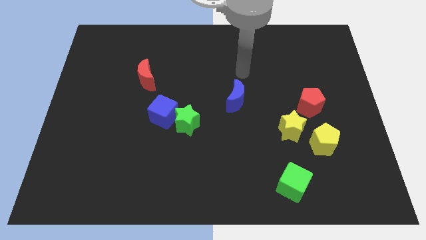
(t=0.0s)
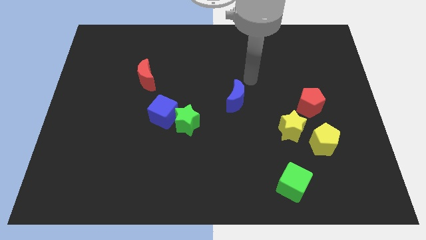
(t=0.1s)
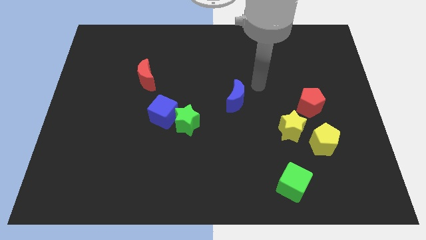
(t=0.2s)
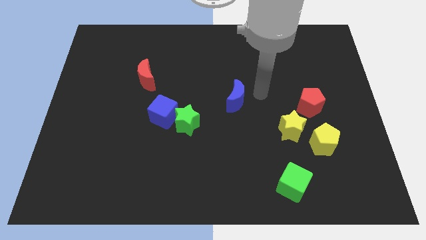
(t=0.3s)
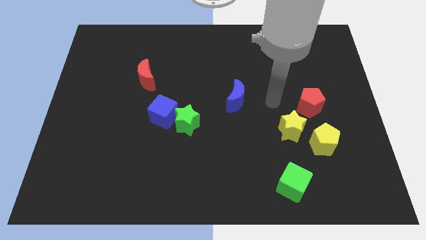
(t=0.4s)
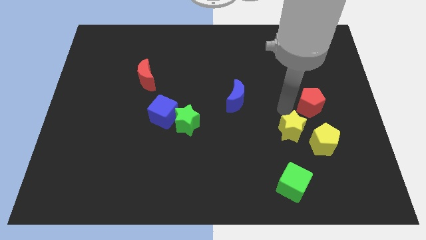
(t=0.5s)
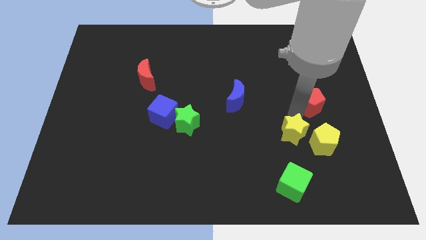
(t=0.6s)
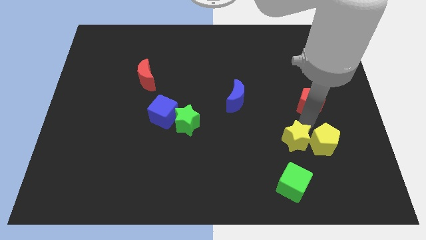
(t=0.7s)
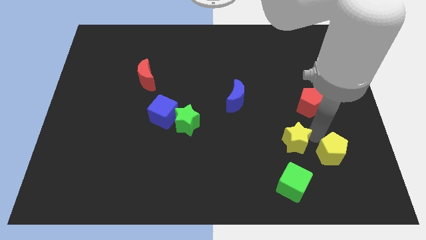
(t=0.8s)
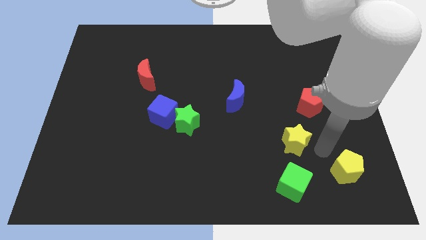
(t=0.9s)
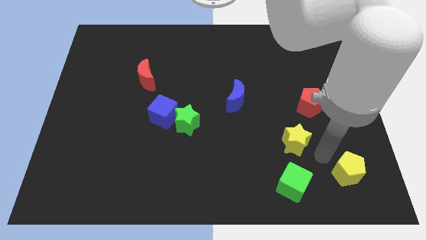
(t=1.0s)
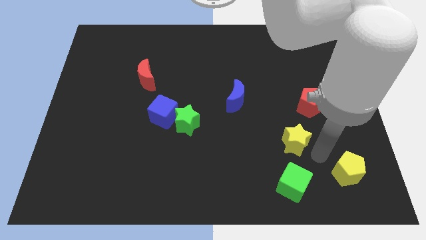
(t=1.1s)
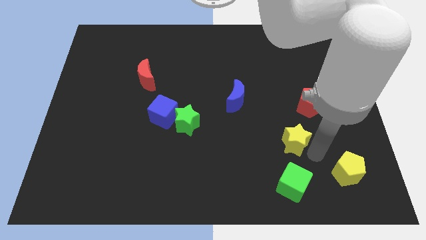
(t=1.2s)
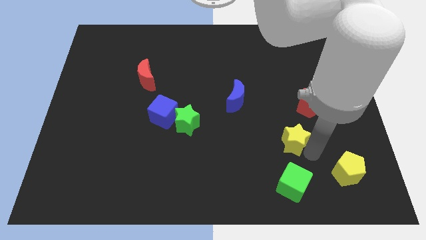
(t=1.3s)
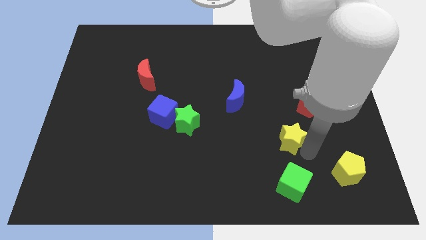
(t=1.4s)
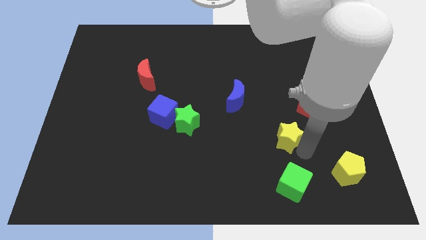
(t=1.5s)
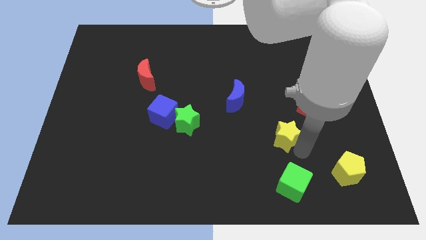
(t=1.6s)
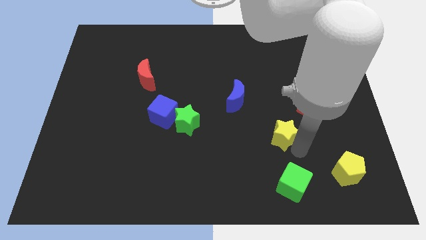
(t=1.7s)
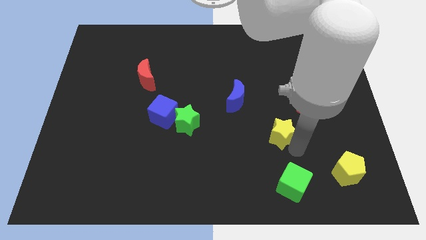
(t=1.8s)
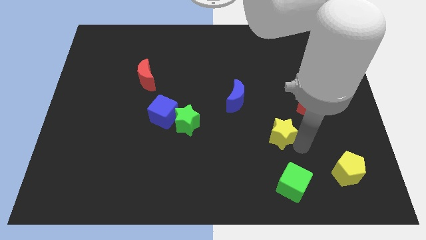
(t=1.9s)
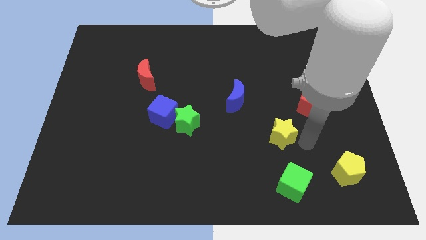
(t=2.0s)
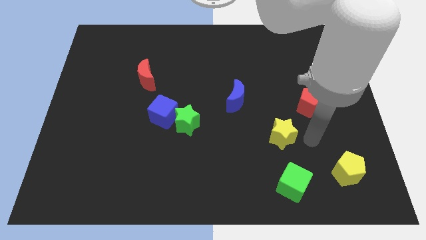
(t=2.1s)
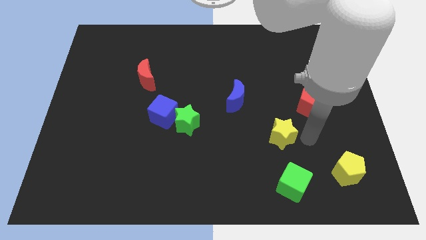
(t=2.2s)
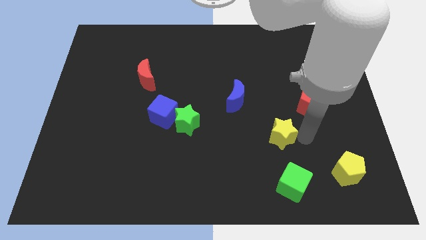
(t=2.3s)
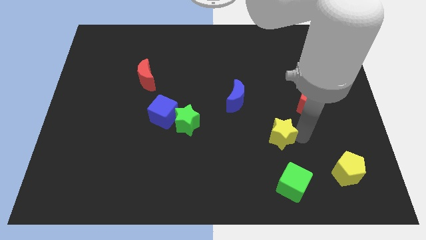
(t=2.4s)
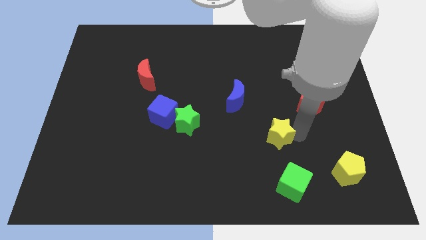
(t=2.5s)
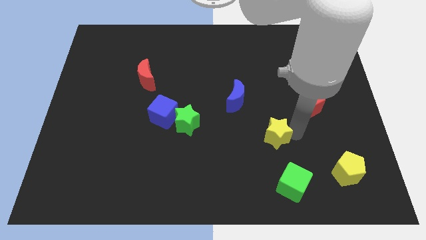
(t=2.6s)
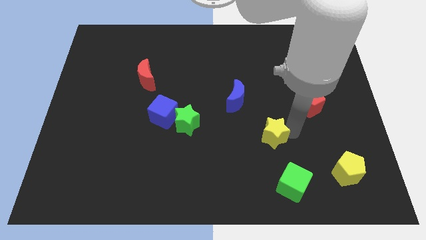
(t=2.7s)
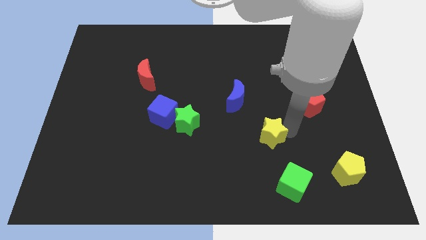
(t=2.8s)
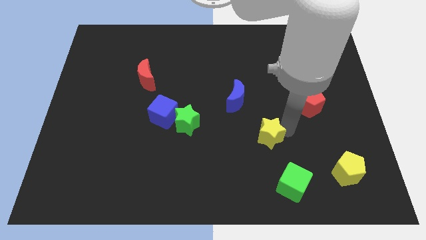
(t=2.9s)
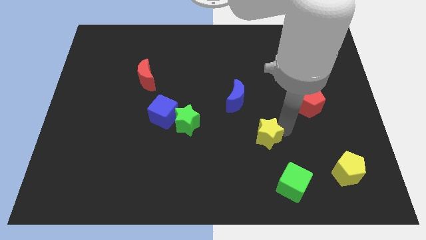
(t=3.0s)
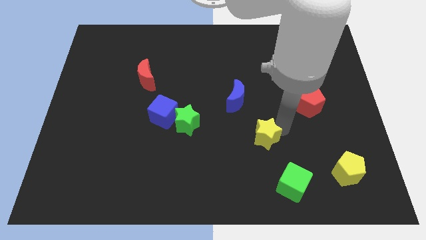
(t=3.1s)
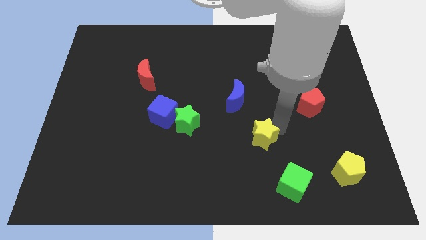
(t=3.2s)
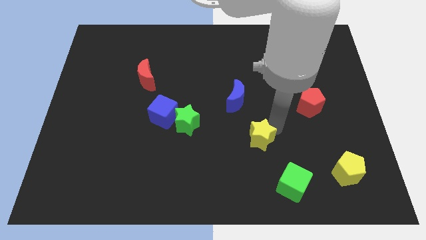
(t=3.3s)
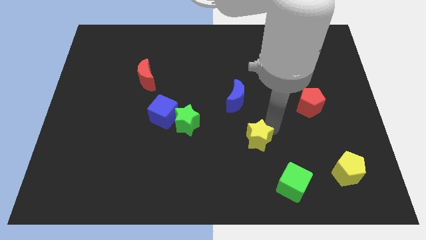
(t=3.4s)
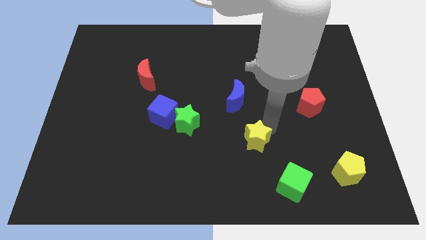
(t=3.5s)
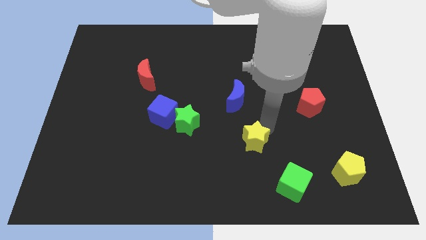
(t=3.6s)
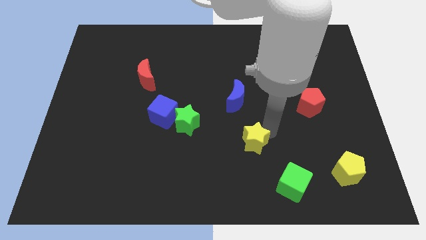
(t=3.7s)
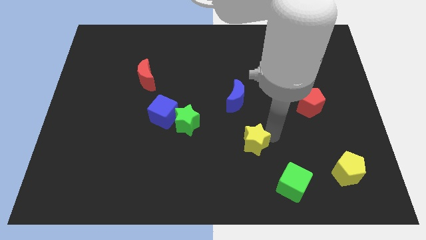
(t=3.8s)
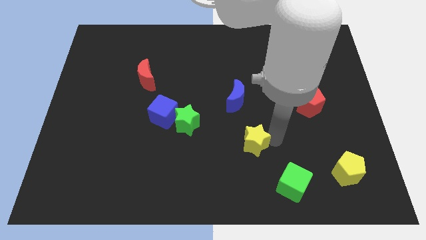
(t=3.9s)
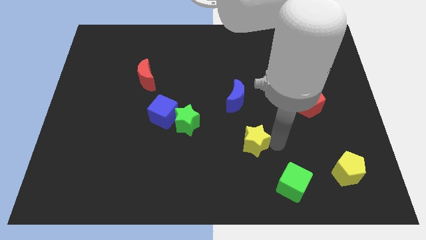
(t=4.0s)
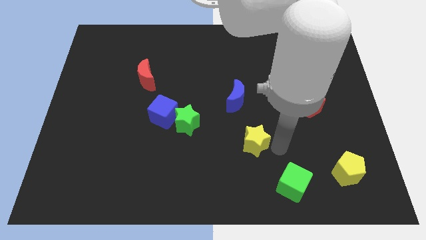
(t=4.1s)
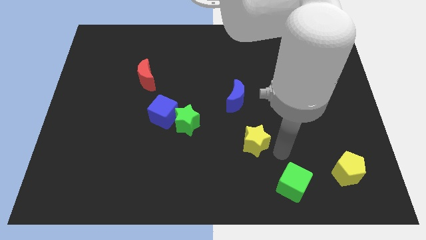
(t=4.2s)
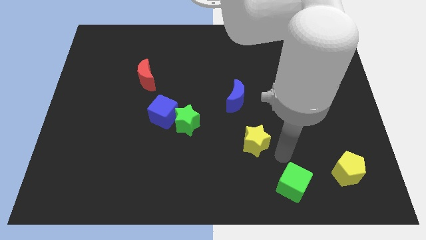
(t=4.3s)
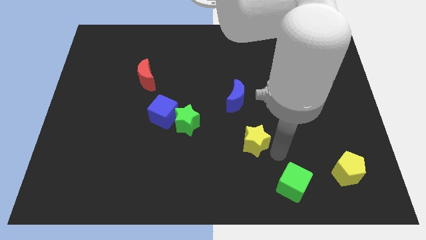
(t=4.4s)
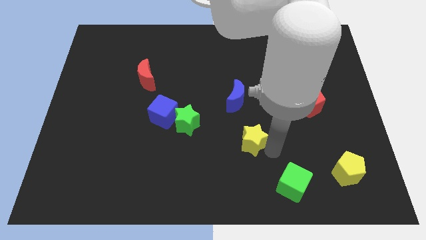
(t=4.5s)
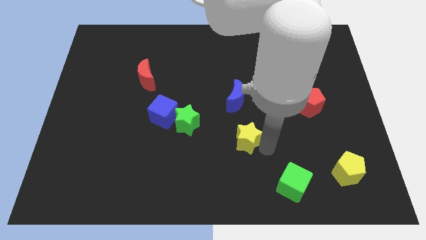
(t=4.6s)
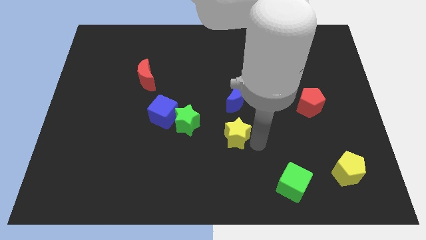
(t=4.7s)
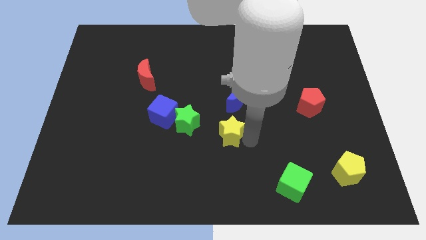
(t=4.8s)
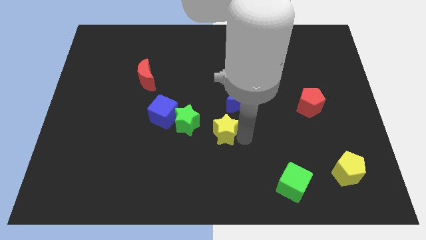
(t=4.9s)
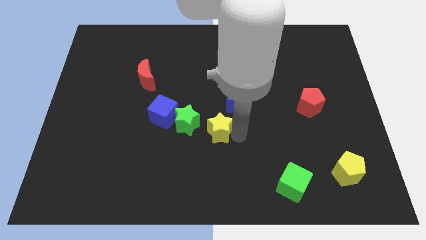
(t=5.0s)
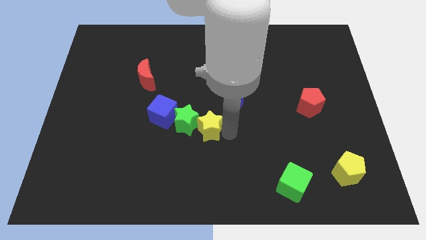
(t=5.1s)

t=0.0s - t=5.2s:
slide the yellow star to the green star

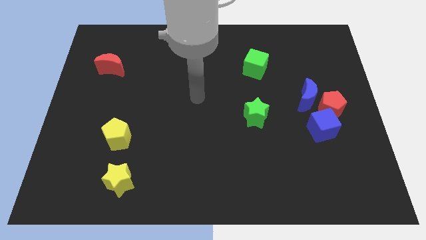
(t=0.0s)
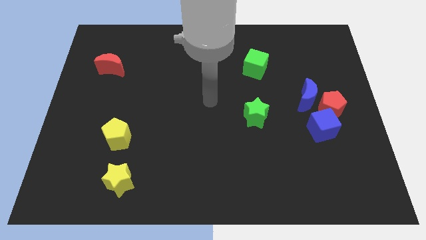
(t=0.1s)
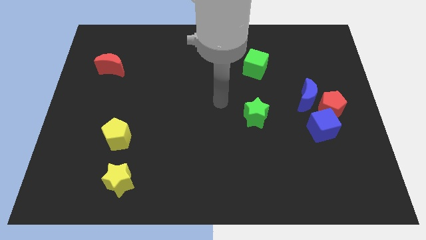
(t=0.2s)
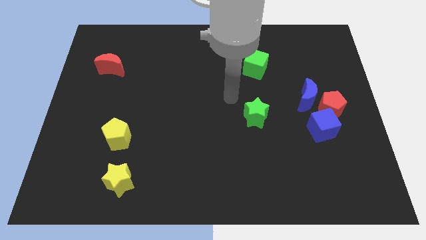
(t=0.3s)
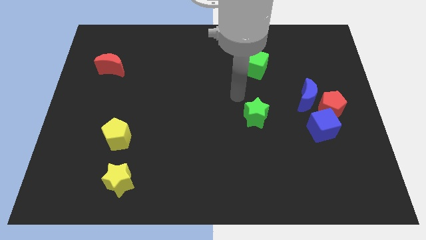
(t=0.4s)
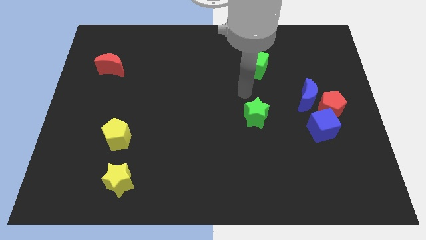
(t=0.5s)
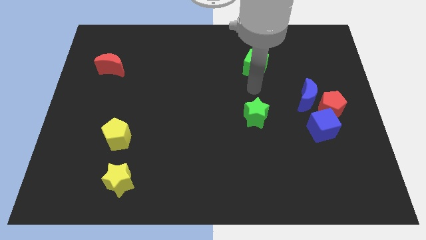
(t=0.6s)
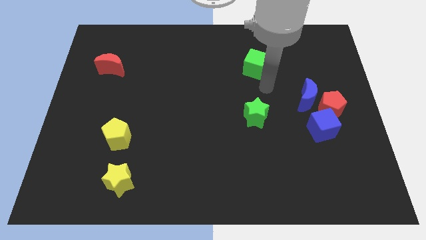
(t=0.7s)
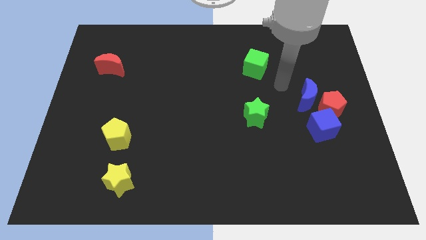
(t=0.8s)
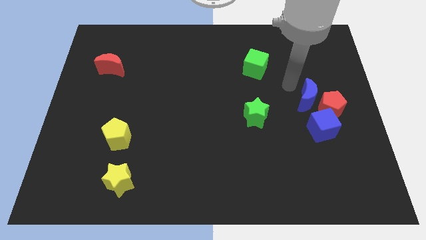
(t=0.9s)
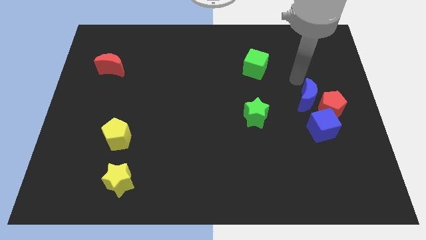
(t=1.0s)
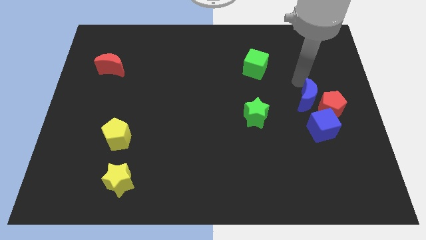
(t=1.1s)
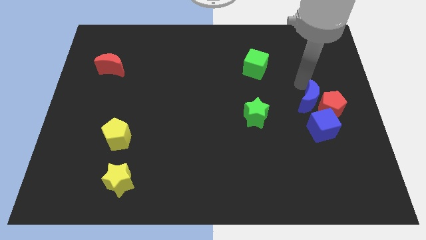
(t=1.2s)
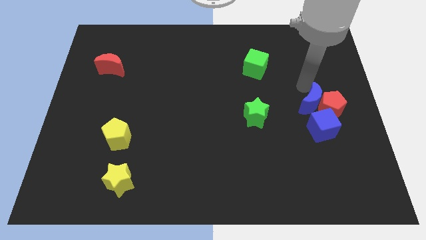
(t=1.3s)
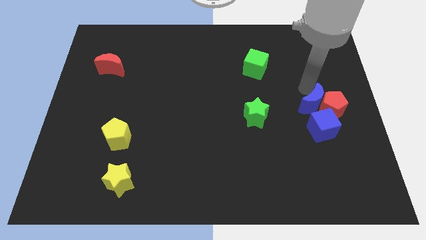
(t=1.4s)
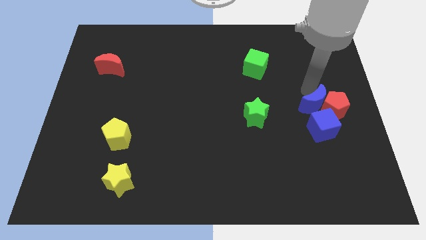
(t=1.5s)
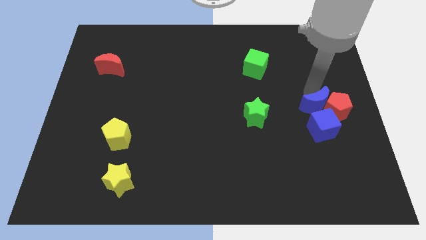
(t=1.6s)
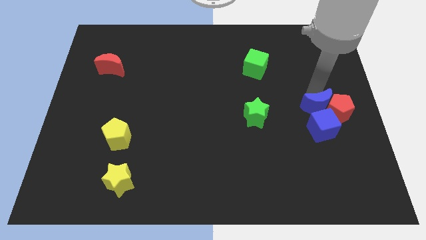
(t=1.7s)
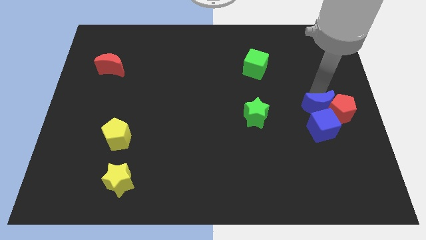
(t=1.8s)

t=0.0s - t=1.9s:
push the blue moon towards the blue cube

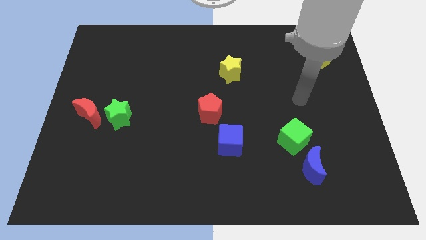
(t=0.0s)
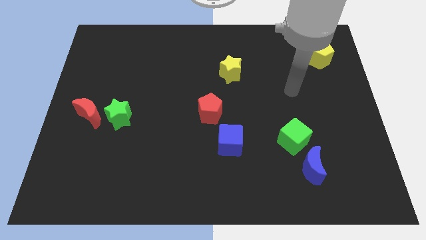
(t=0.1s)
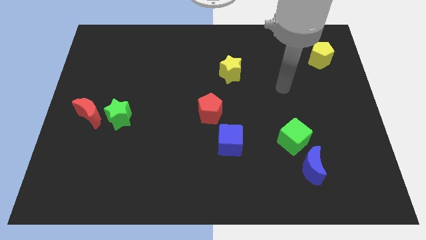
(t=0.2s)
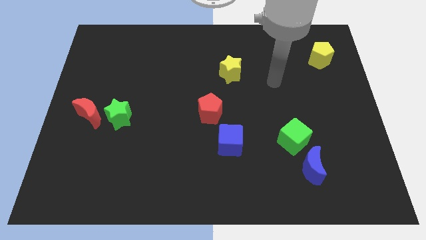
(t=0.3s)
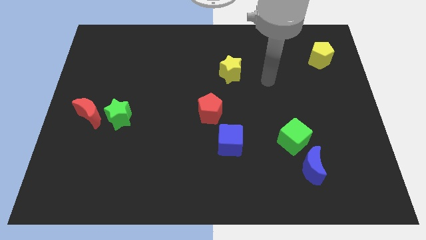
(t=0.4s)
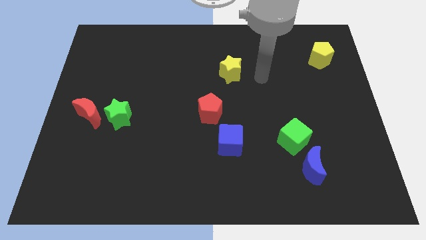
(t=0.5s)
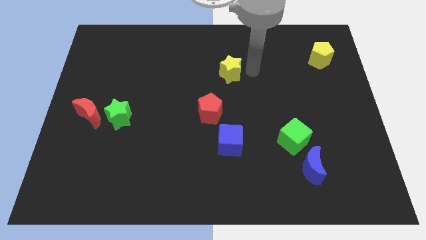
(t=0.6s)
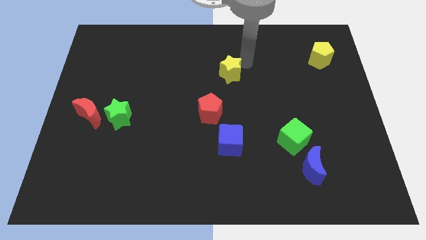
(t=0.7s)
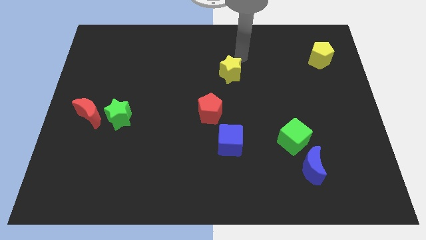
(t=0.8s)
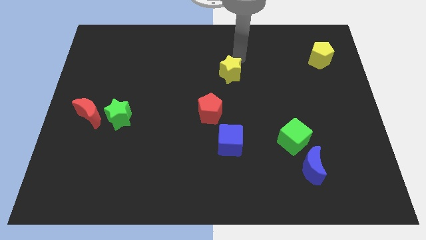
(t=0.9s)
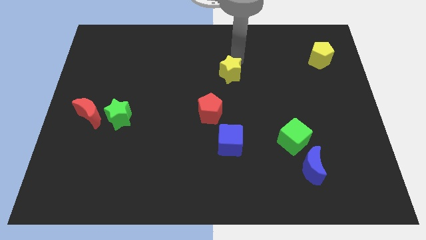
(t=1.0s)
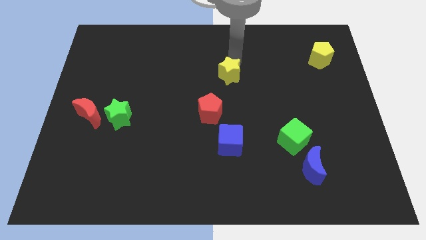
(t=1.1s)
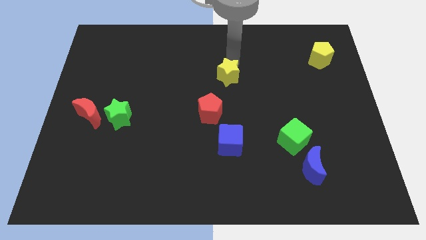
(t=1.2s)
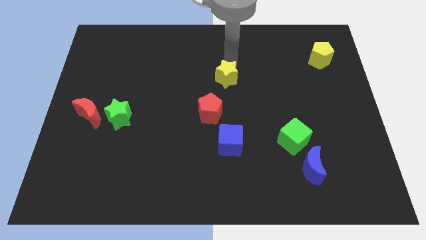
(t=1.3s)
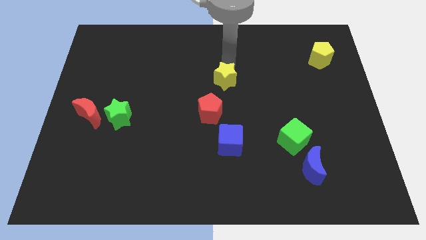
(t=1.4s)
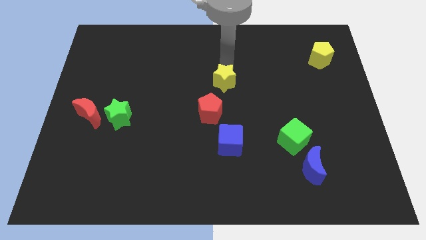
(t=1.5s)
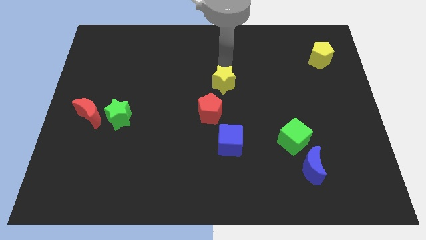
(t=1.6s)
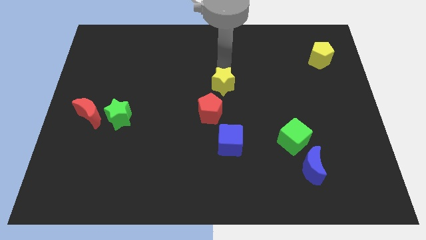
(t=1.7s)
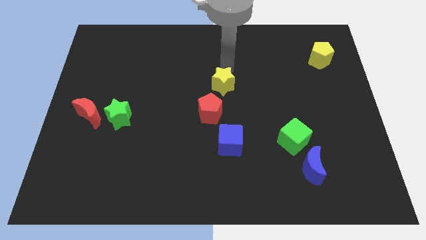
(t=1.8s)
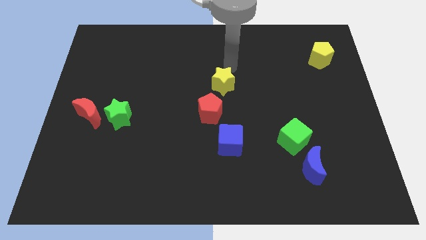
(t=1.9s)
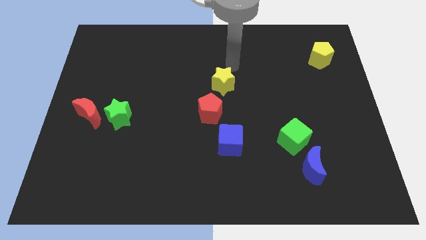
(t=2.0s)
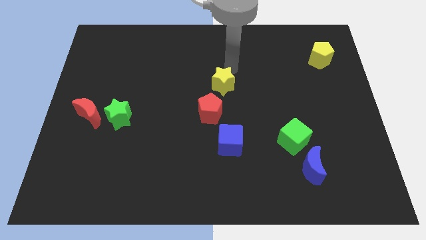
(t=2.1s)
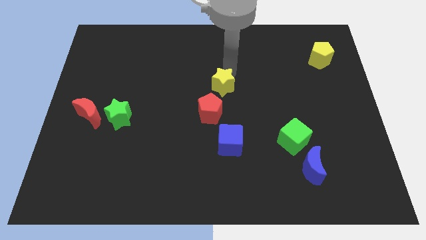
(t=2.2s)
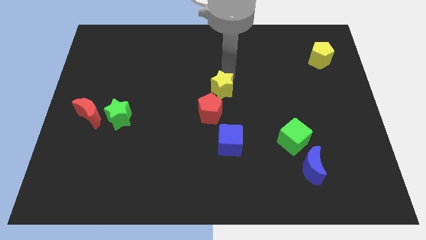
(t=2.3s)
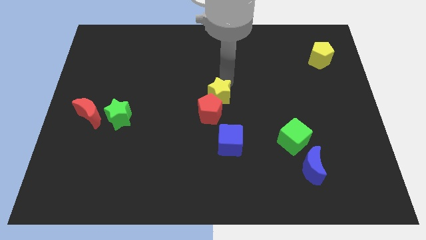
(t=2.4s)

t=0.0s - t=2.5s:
put the yellow star towards the red pentagon
